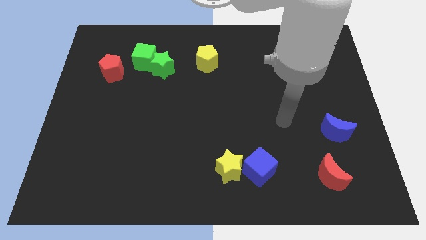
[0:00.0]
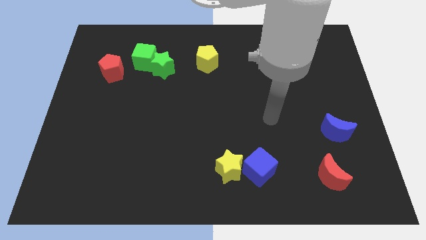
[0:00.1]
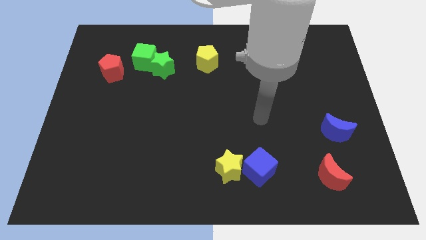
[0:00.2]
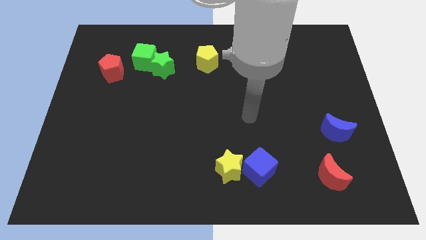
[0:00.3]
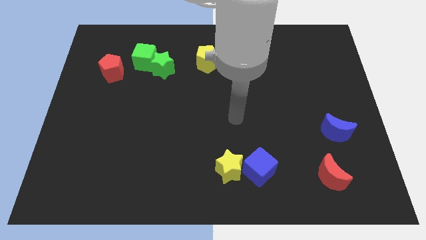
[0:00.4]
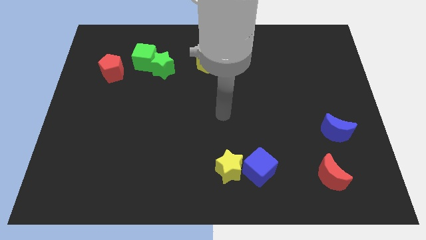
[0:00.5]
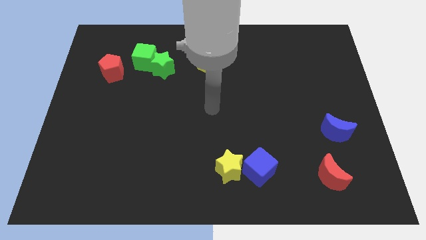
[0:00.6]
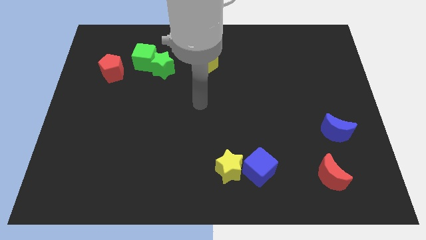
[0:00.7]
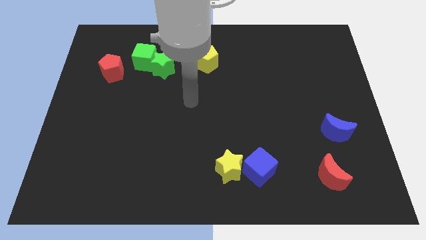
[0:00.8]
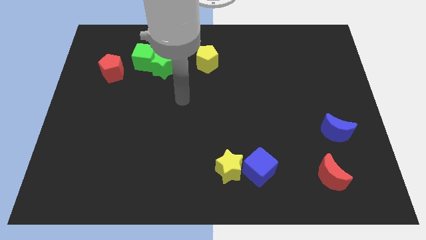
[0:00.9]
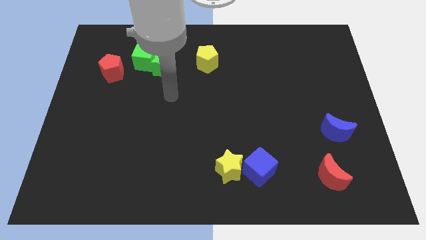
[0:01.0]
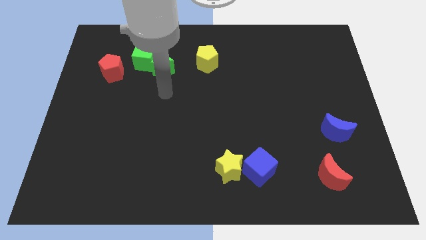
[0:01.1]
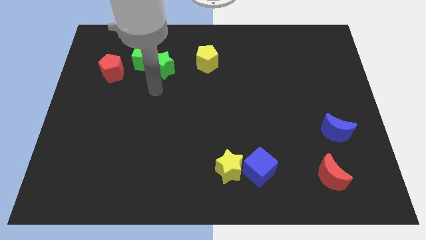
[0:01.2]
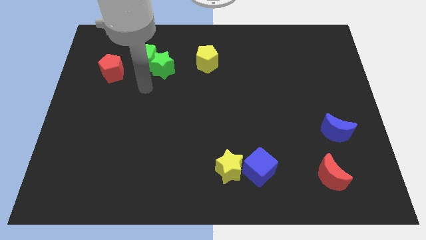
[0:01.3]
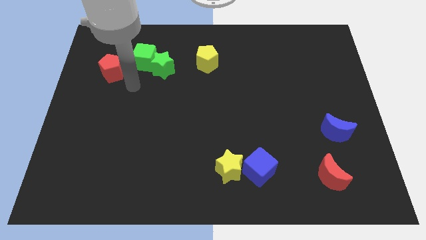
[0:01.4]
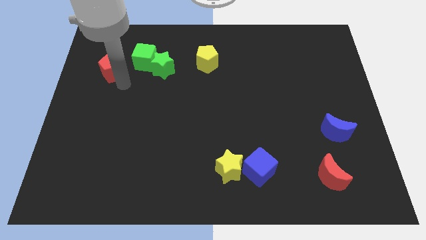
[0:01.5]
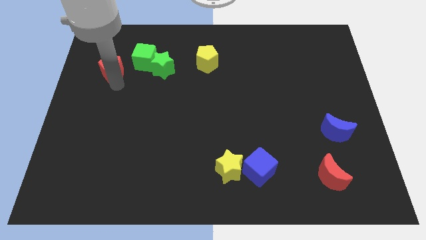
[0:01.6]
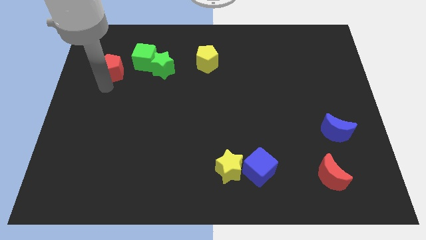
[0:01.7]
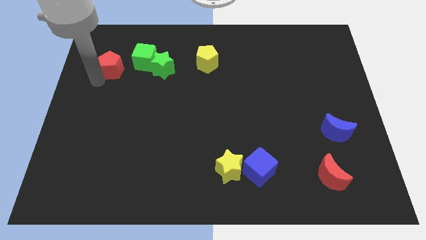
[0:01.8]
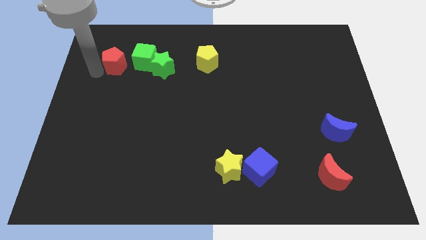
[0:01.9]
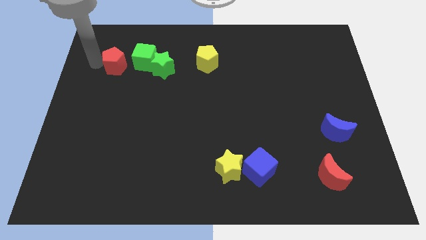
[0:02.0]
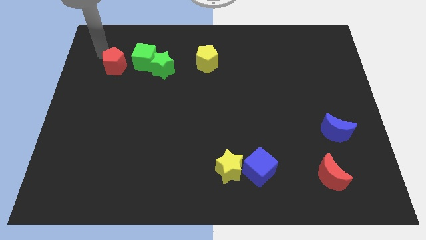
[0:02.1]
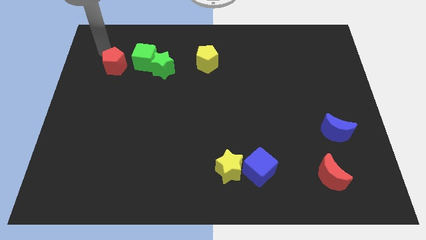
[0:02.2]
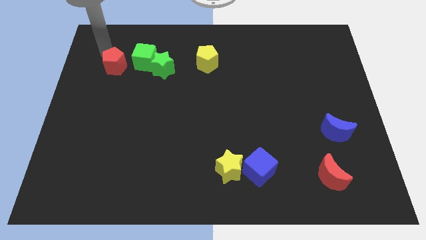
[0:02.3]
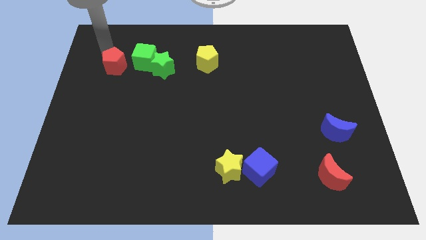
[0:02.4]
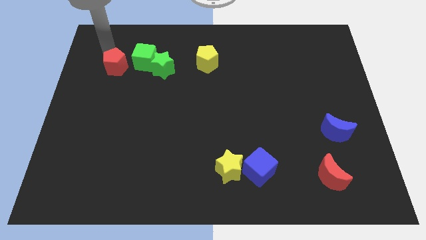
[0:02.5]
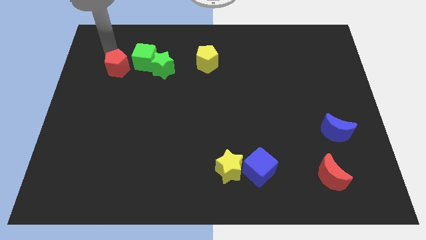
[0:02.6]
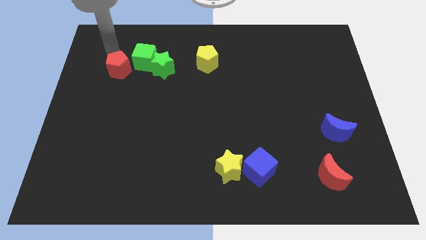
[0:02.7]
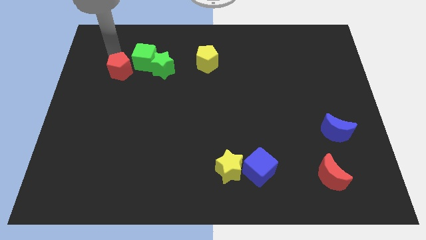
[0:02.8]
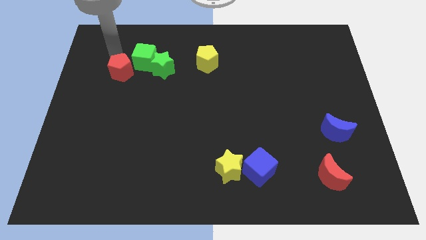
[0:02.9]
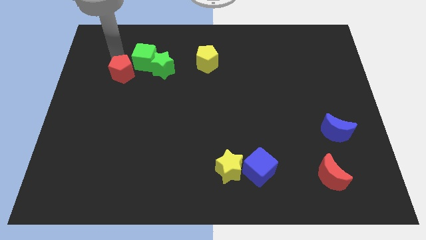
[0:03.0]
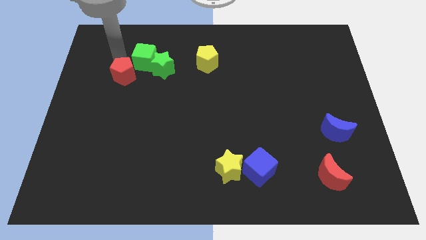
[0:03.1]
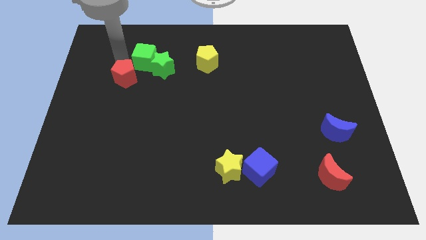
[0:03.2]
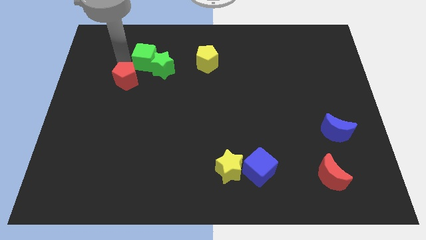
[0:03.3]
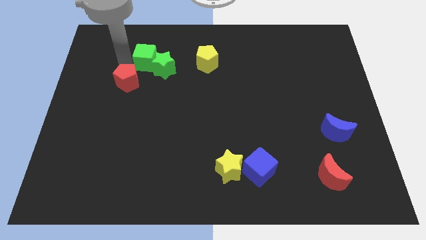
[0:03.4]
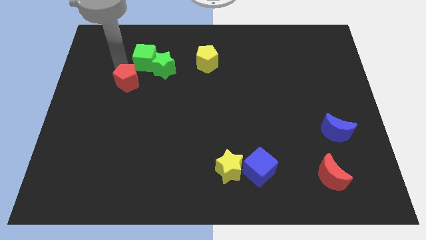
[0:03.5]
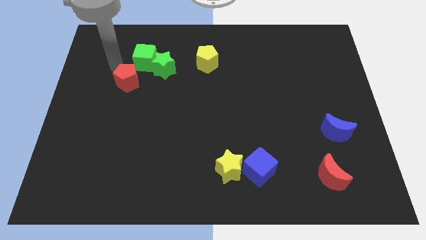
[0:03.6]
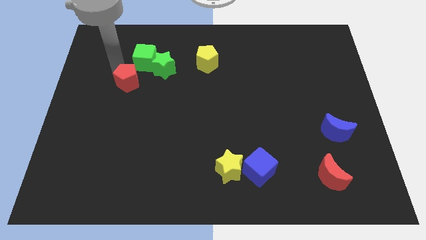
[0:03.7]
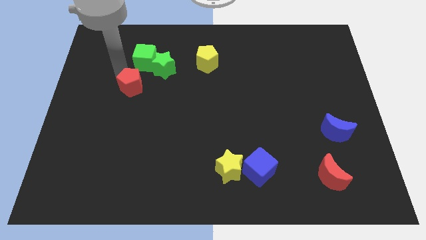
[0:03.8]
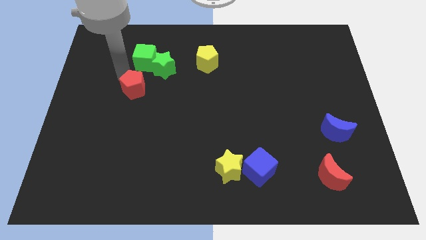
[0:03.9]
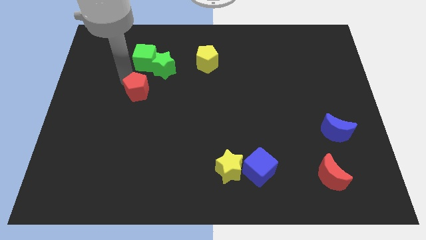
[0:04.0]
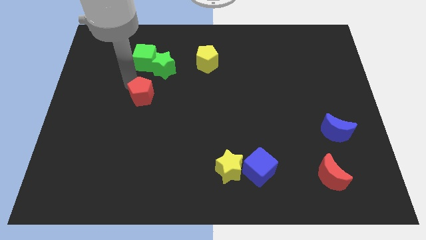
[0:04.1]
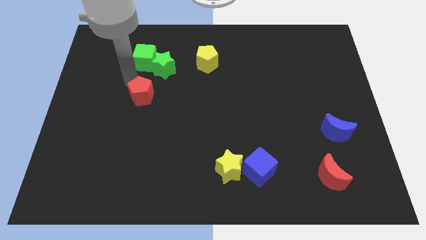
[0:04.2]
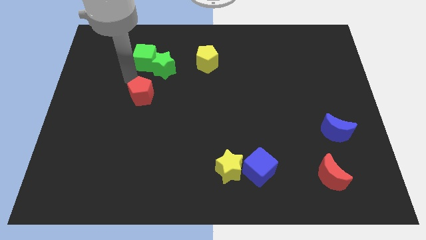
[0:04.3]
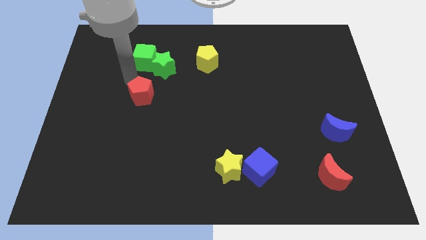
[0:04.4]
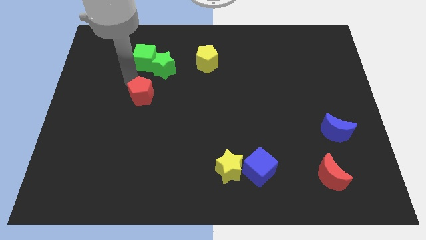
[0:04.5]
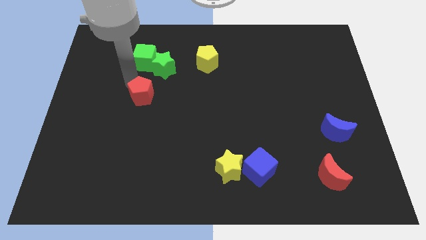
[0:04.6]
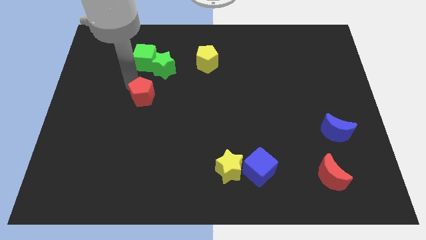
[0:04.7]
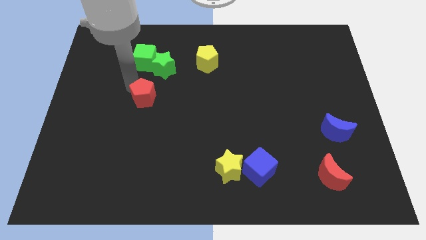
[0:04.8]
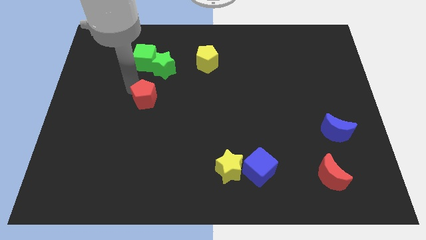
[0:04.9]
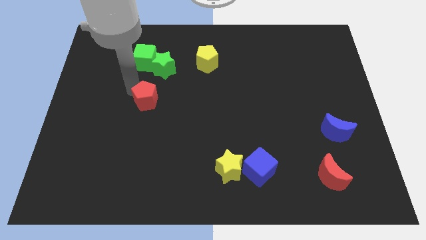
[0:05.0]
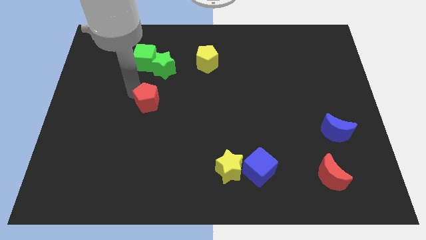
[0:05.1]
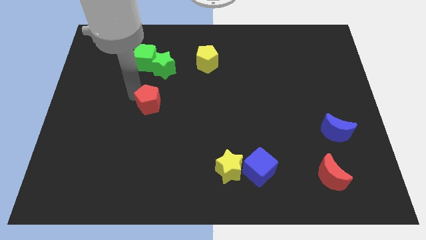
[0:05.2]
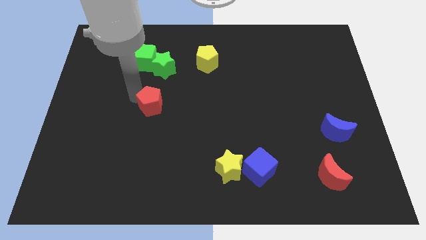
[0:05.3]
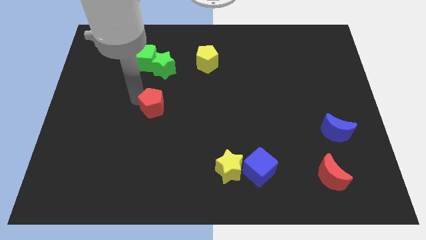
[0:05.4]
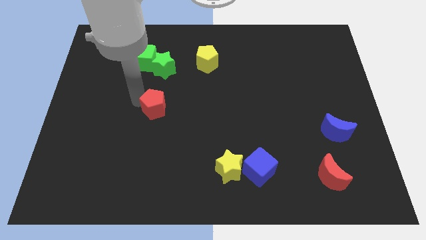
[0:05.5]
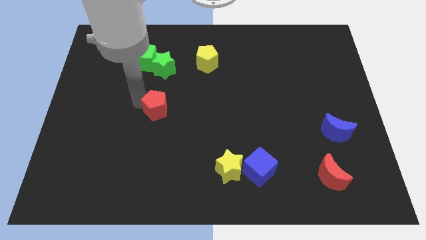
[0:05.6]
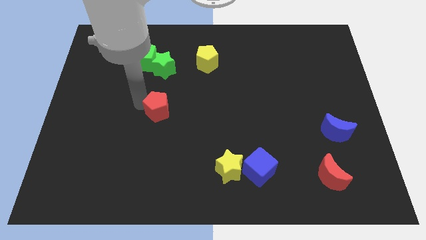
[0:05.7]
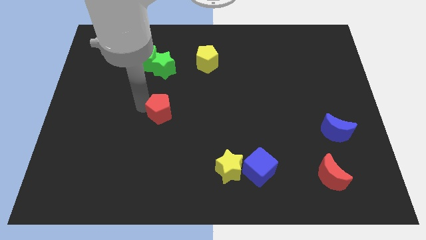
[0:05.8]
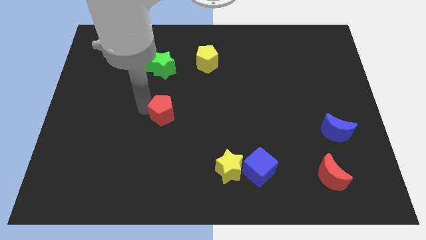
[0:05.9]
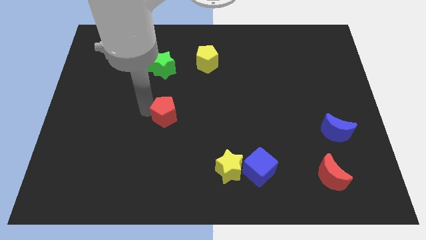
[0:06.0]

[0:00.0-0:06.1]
slide the red pentagon down and to the right diagonally

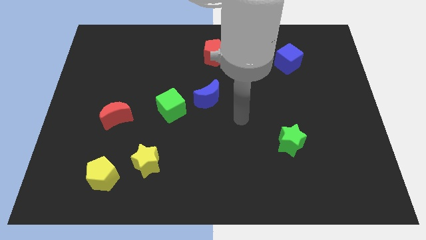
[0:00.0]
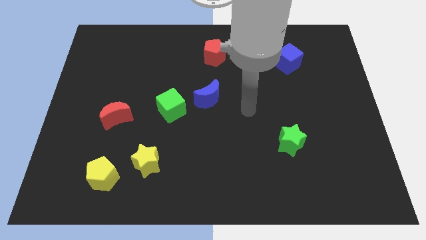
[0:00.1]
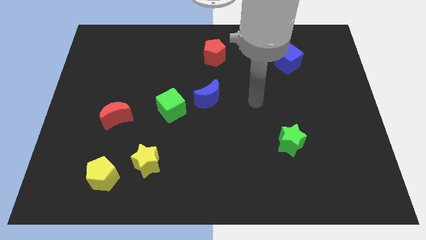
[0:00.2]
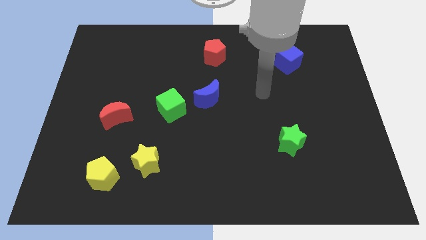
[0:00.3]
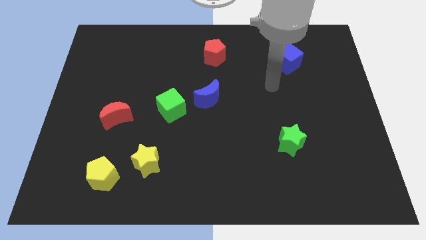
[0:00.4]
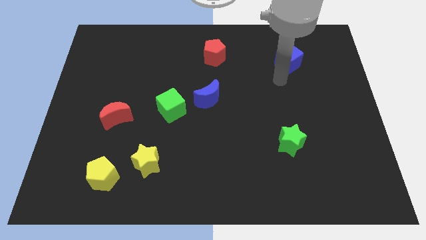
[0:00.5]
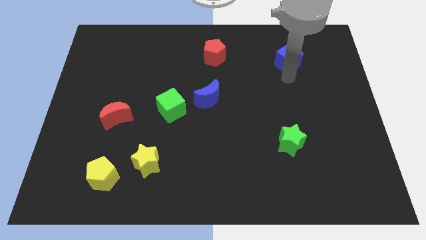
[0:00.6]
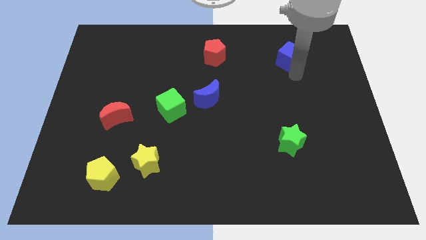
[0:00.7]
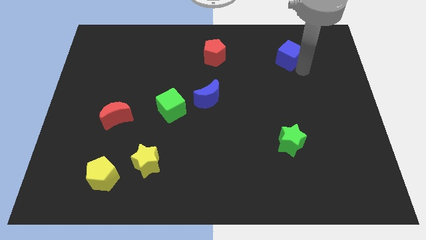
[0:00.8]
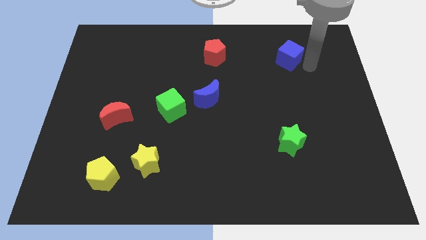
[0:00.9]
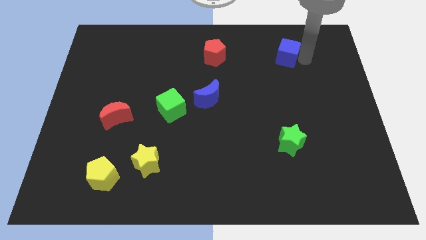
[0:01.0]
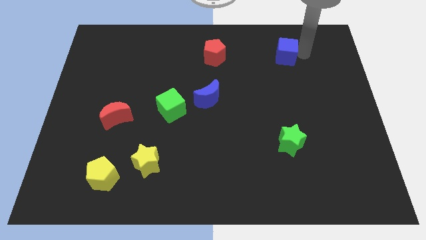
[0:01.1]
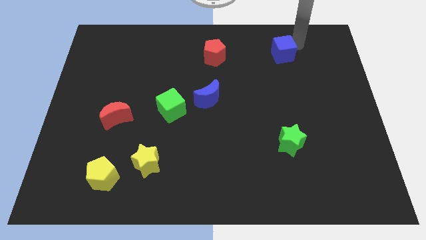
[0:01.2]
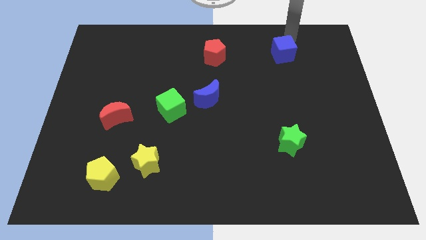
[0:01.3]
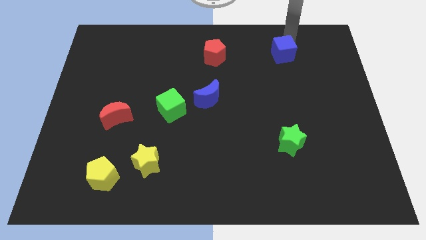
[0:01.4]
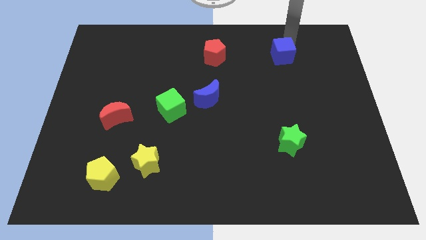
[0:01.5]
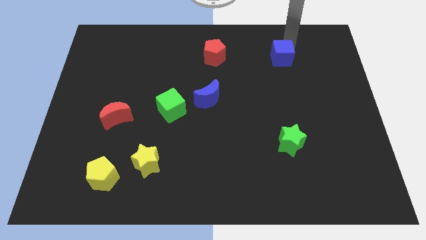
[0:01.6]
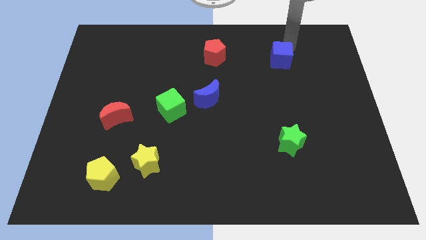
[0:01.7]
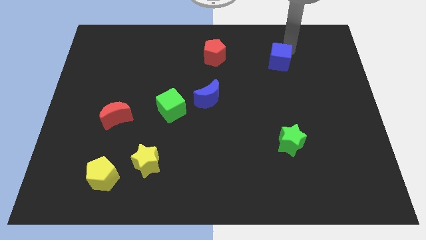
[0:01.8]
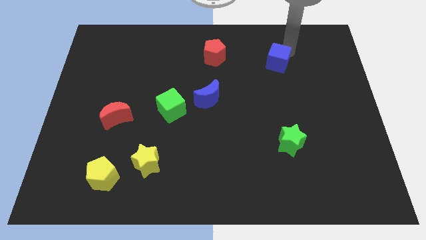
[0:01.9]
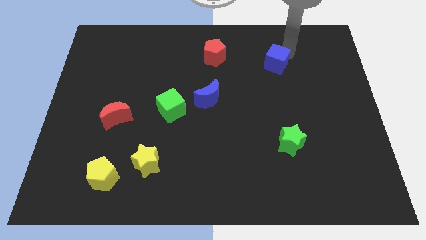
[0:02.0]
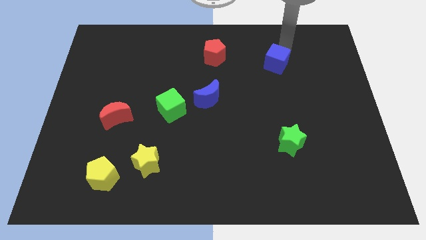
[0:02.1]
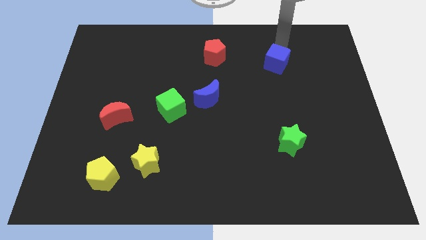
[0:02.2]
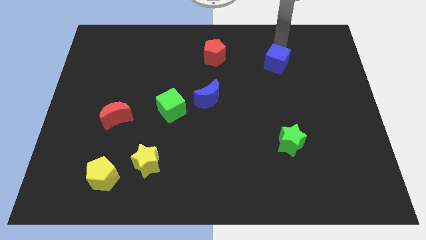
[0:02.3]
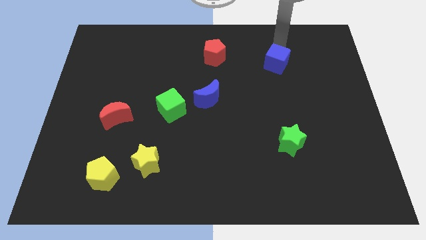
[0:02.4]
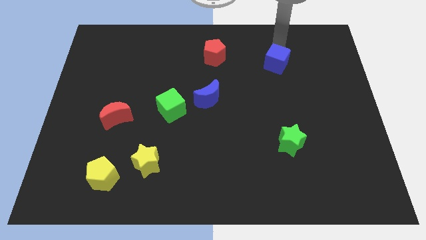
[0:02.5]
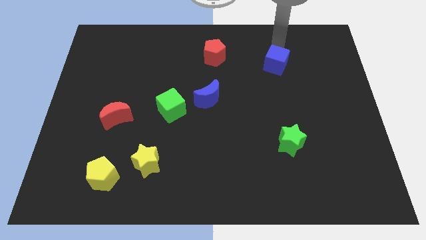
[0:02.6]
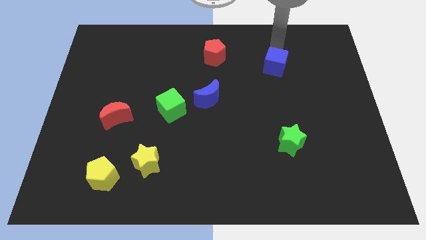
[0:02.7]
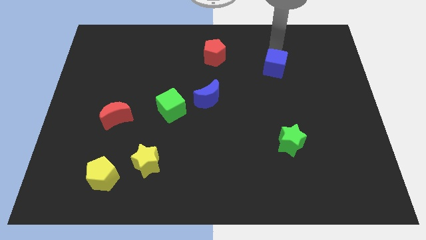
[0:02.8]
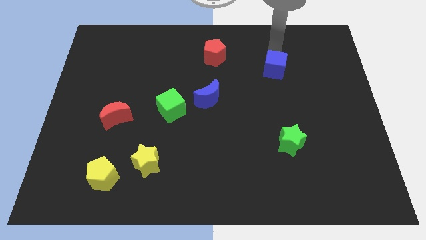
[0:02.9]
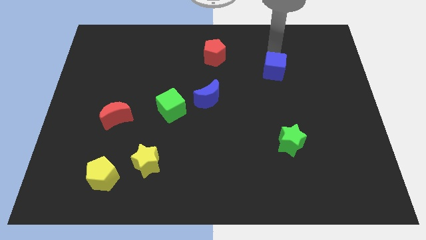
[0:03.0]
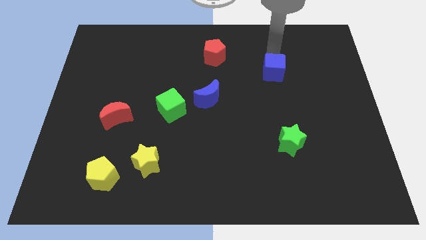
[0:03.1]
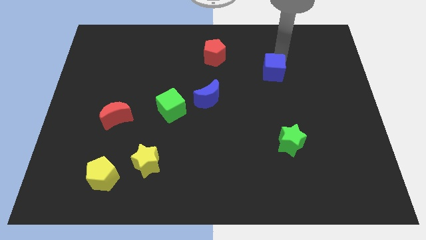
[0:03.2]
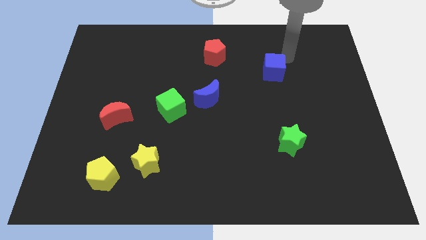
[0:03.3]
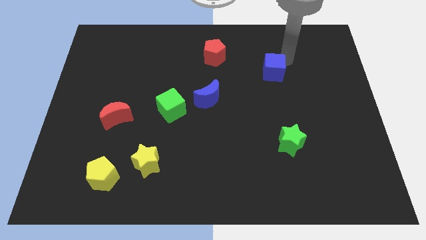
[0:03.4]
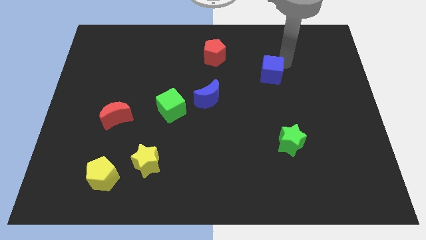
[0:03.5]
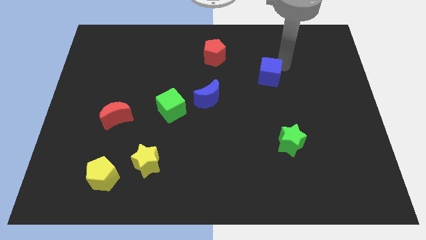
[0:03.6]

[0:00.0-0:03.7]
slide the blue cube downwards and left diagonally a little bit
